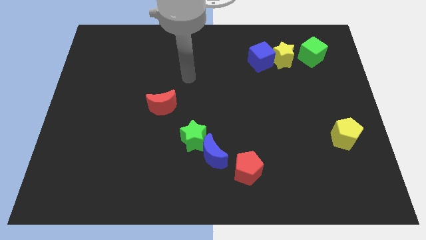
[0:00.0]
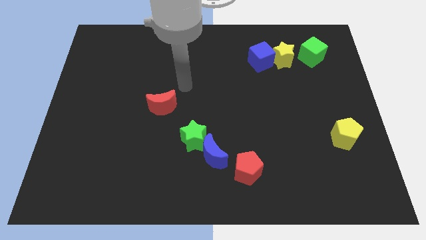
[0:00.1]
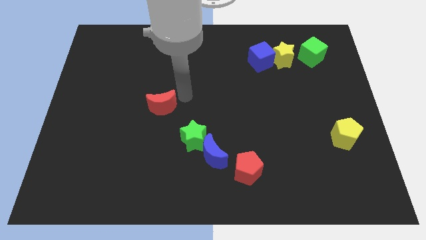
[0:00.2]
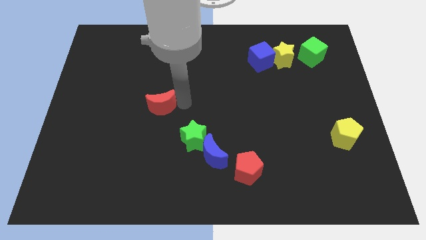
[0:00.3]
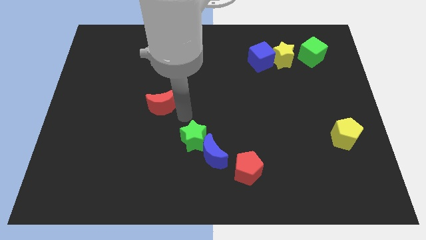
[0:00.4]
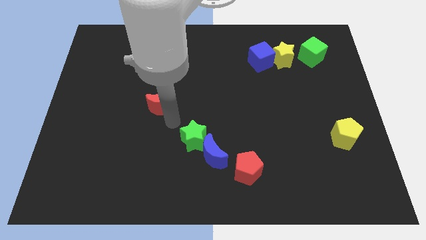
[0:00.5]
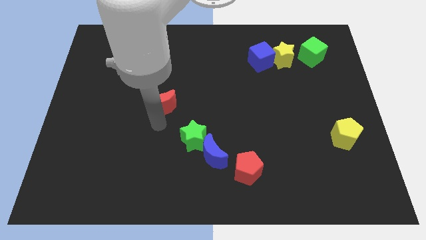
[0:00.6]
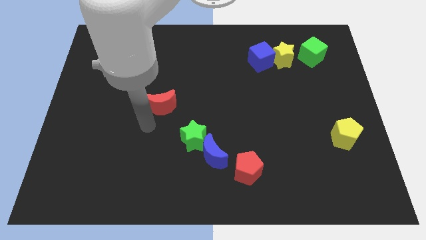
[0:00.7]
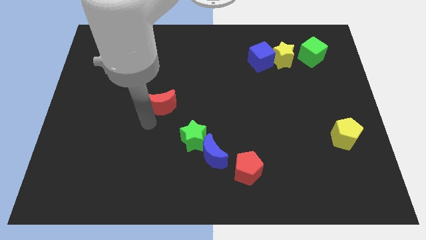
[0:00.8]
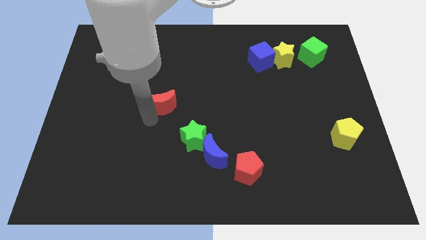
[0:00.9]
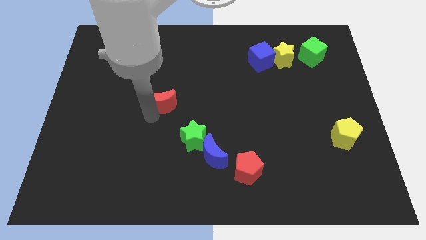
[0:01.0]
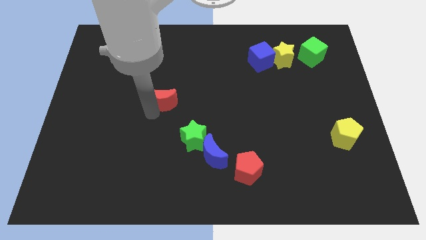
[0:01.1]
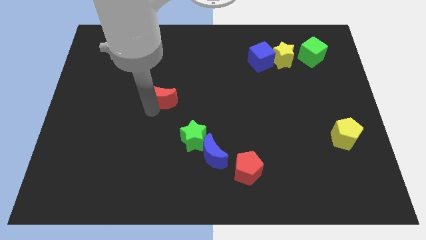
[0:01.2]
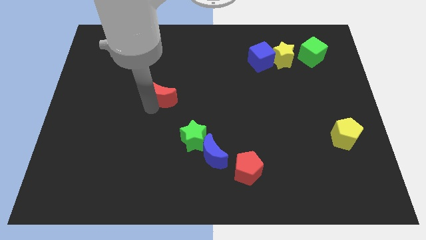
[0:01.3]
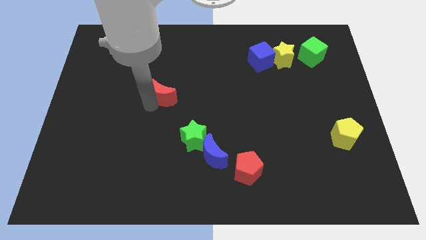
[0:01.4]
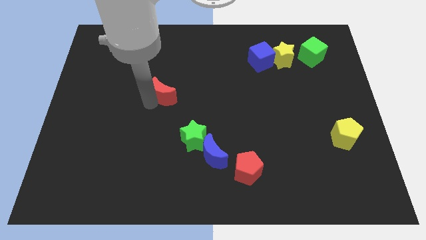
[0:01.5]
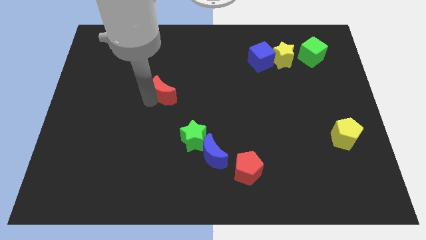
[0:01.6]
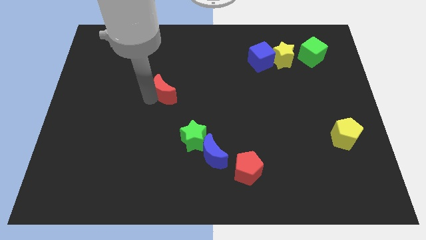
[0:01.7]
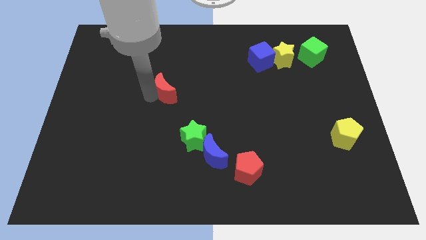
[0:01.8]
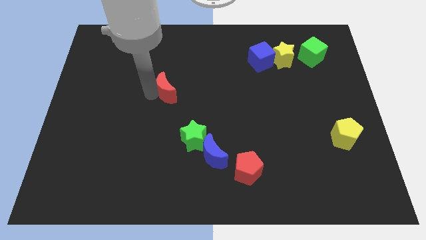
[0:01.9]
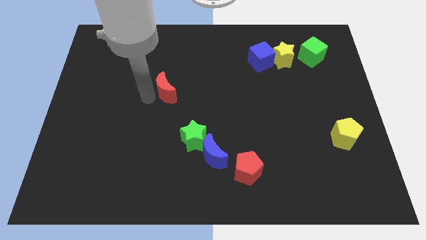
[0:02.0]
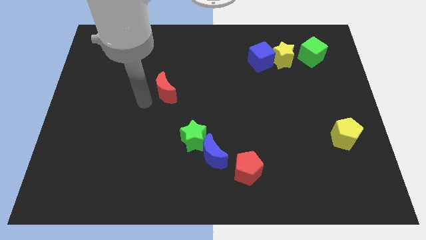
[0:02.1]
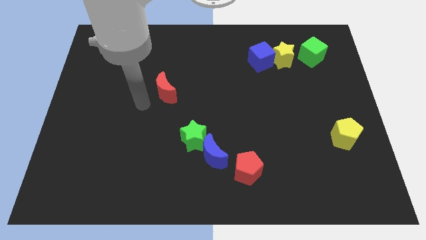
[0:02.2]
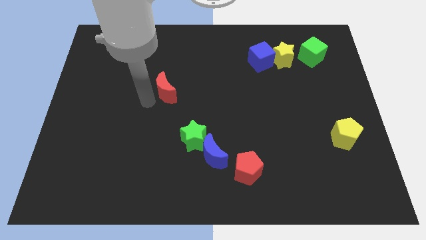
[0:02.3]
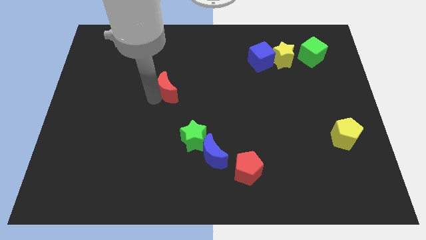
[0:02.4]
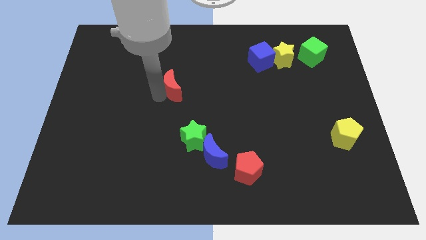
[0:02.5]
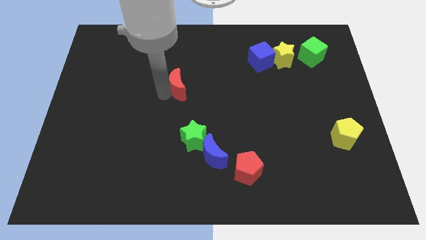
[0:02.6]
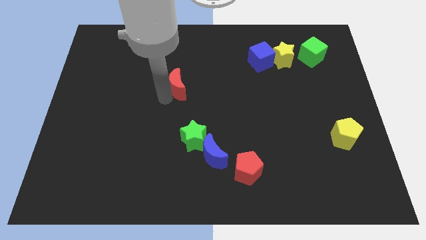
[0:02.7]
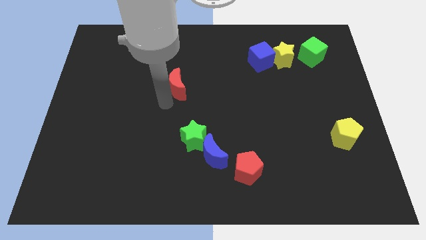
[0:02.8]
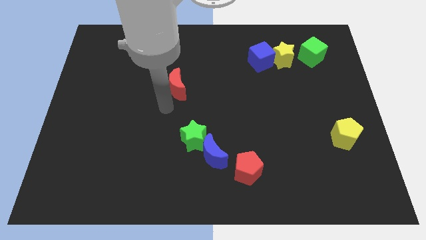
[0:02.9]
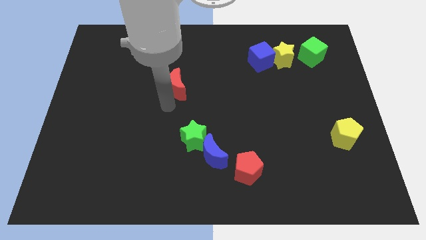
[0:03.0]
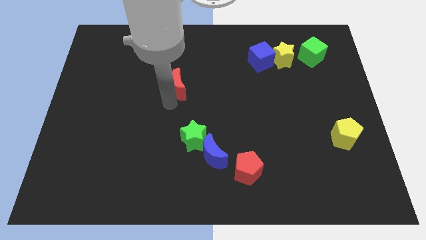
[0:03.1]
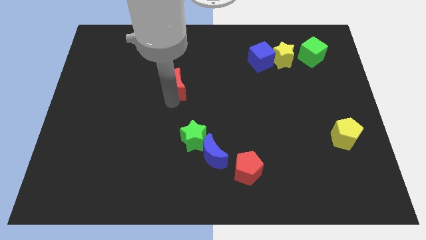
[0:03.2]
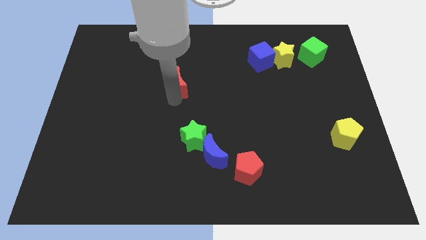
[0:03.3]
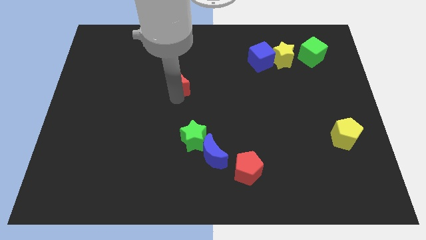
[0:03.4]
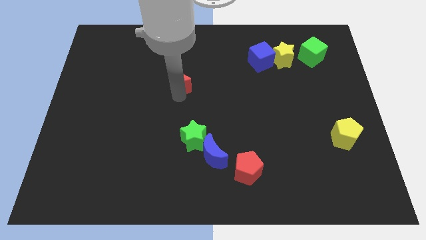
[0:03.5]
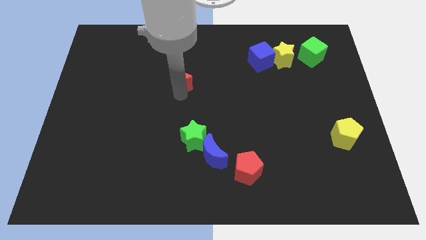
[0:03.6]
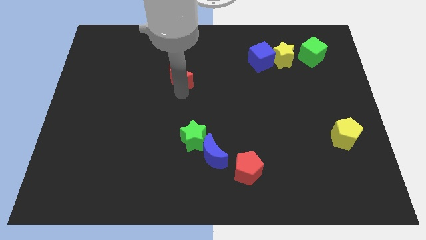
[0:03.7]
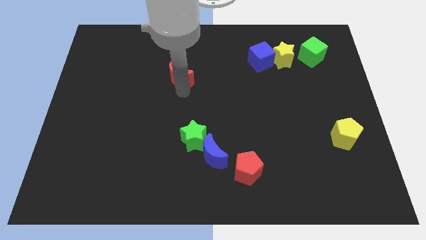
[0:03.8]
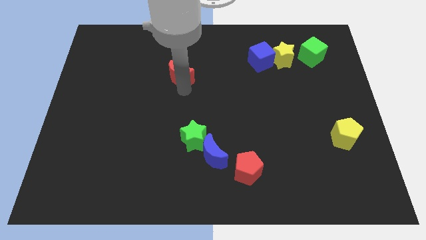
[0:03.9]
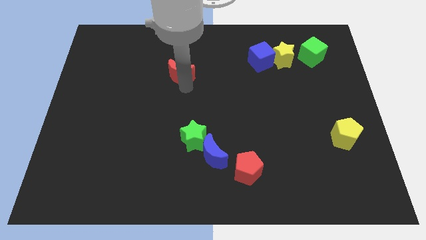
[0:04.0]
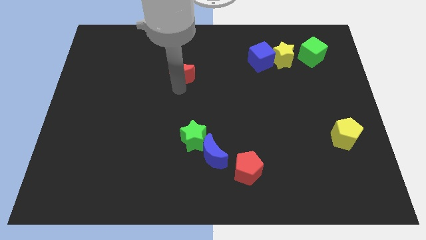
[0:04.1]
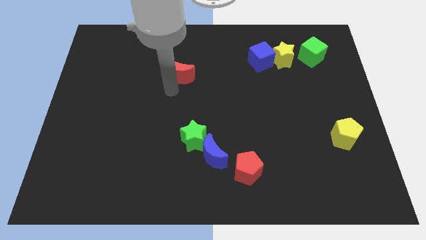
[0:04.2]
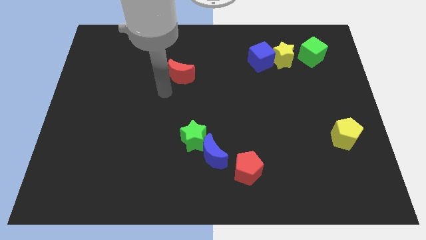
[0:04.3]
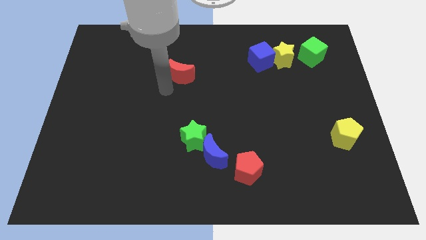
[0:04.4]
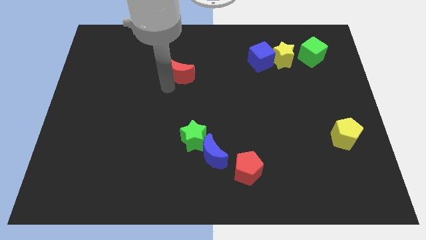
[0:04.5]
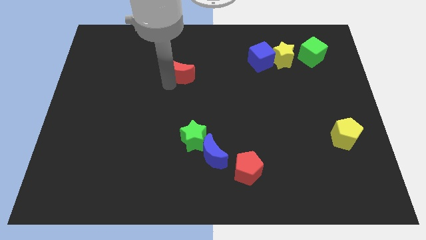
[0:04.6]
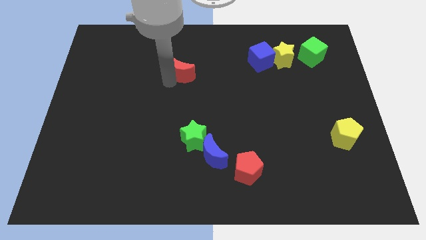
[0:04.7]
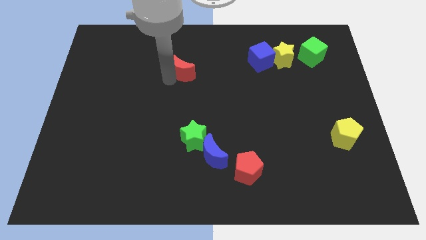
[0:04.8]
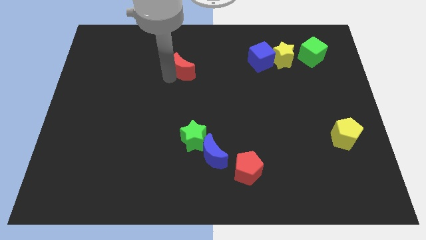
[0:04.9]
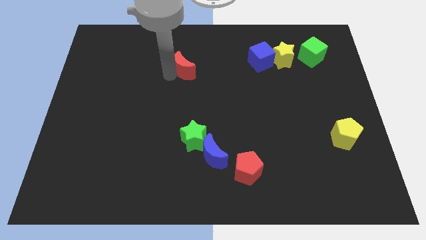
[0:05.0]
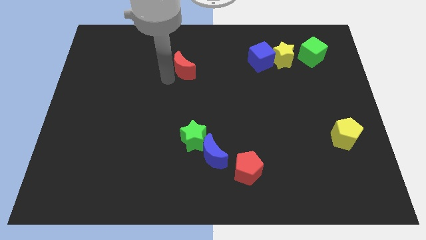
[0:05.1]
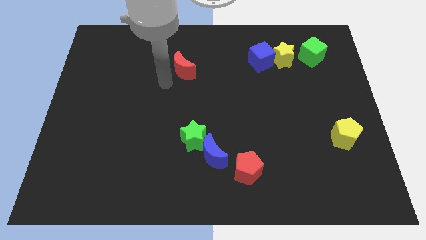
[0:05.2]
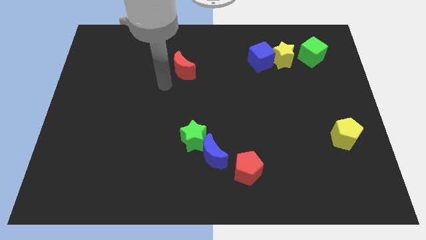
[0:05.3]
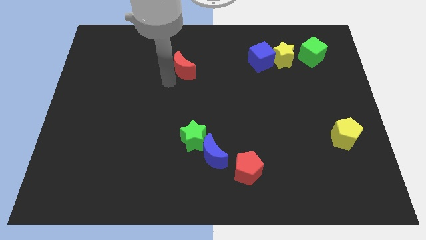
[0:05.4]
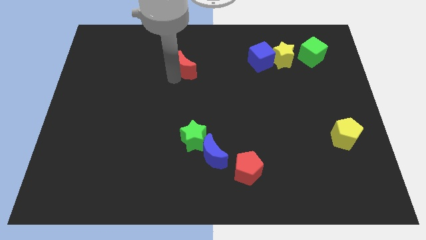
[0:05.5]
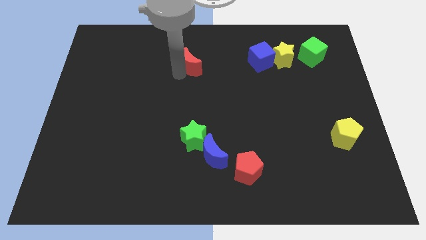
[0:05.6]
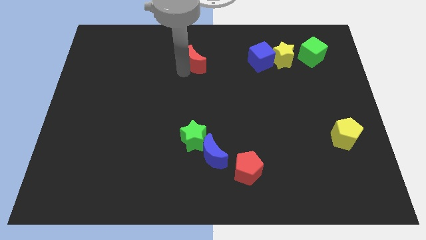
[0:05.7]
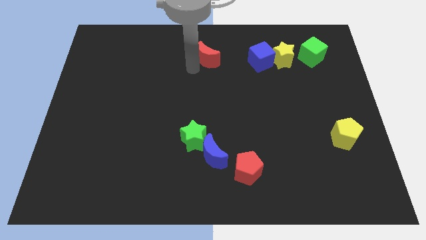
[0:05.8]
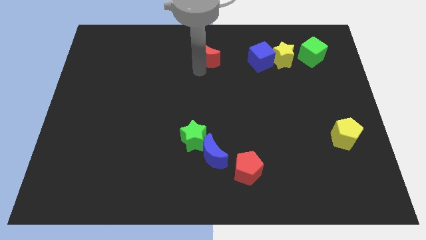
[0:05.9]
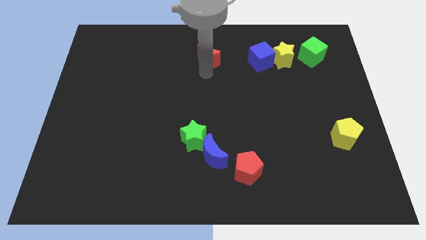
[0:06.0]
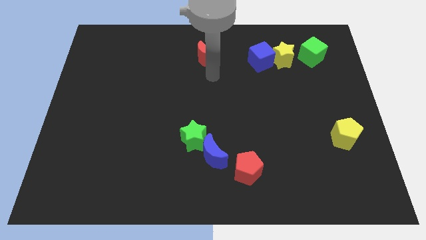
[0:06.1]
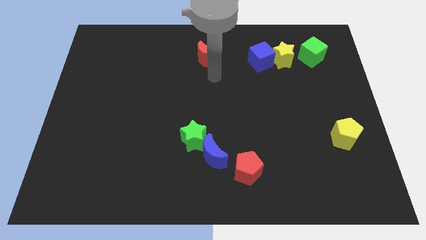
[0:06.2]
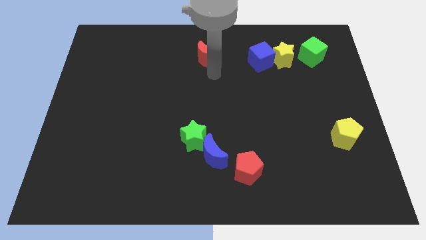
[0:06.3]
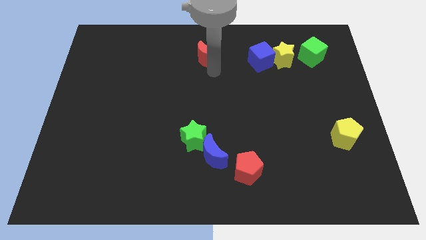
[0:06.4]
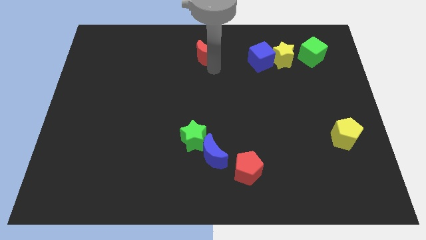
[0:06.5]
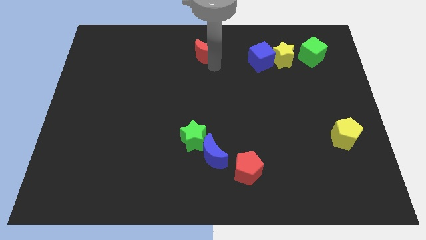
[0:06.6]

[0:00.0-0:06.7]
put the red moon to the top

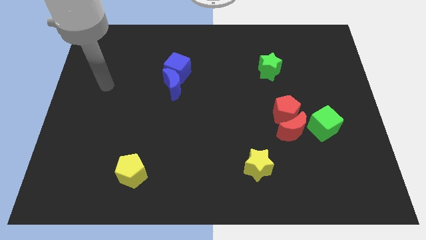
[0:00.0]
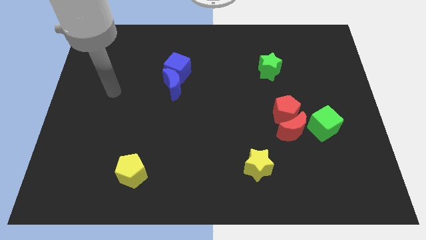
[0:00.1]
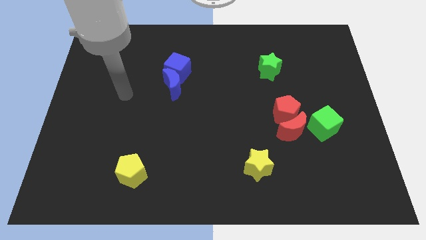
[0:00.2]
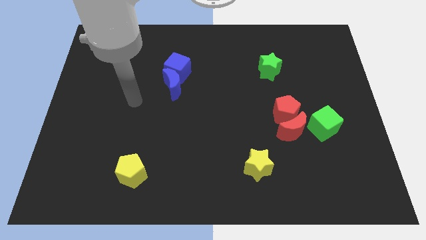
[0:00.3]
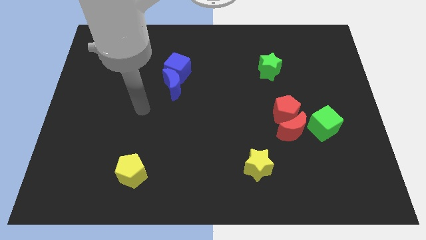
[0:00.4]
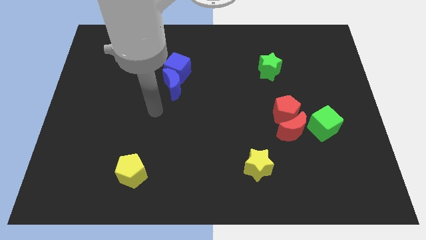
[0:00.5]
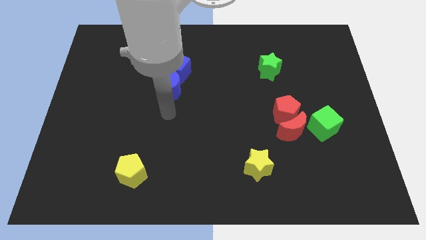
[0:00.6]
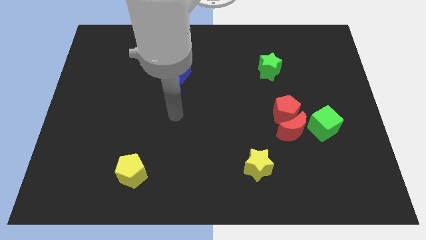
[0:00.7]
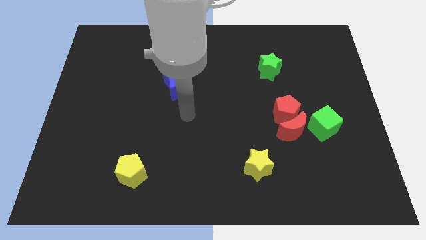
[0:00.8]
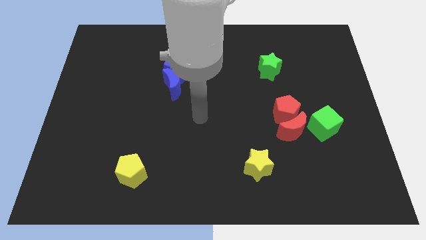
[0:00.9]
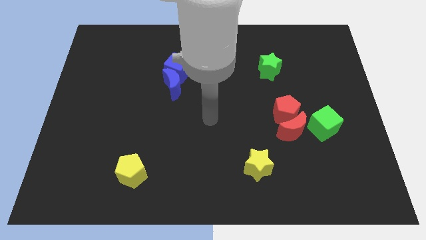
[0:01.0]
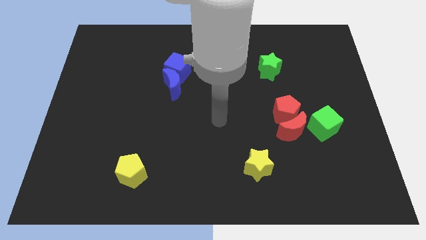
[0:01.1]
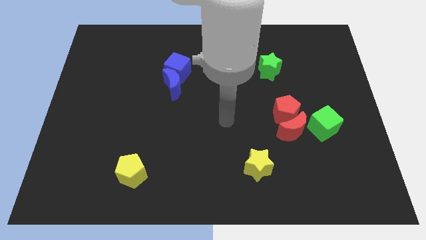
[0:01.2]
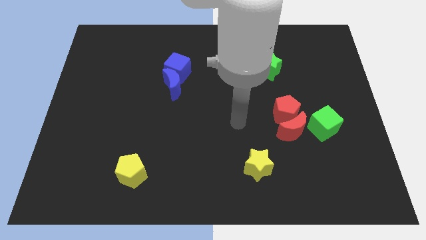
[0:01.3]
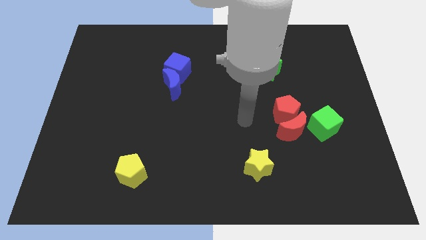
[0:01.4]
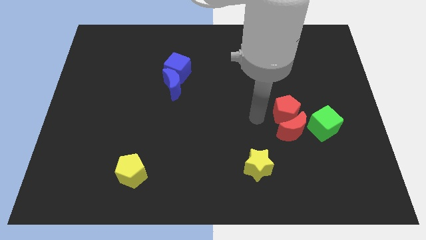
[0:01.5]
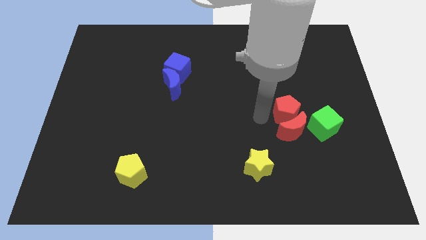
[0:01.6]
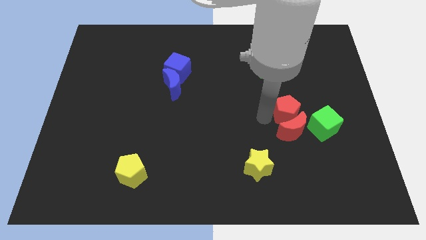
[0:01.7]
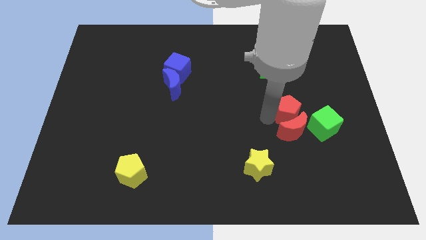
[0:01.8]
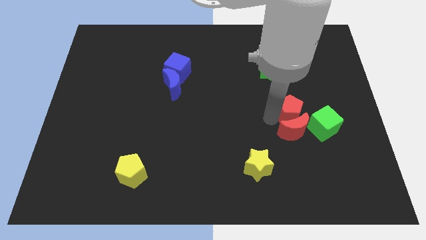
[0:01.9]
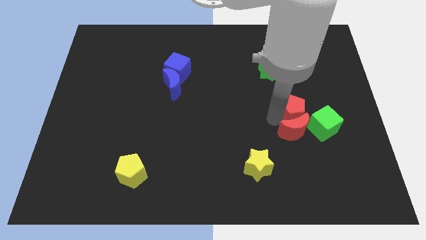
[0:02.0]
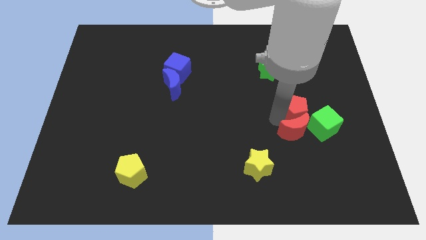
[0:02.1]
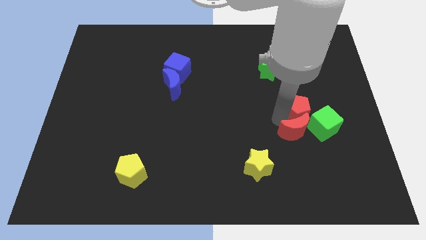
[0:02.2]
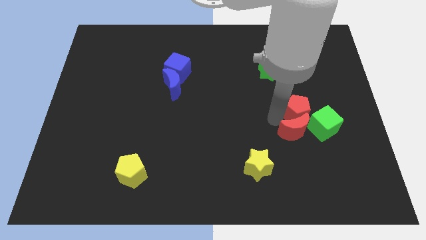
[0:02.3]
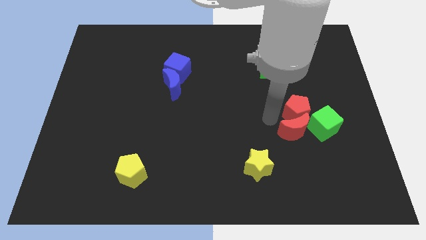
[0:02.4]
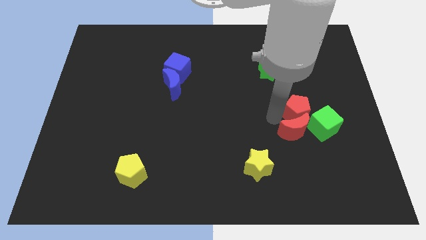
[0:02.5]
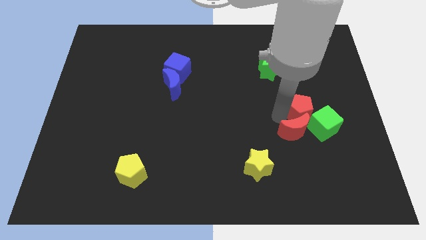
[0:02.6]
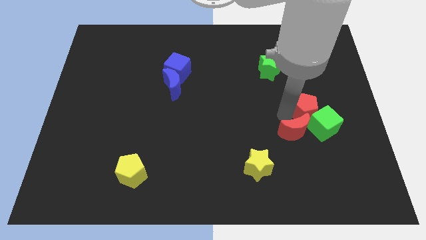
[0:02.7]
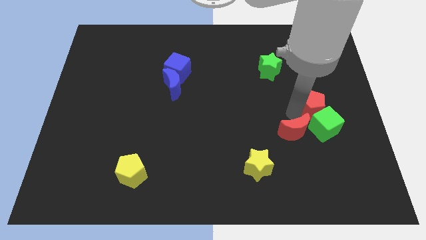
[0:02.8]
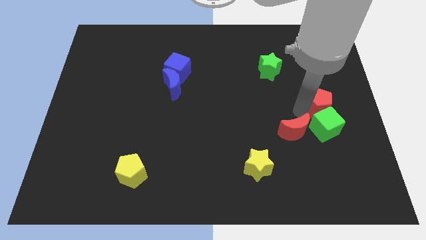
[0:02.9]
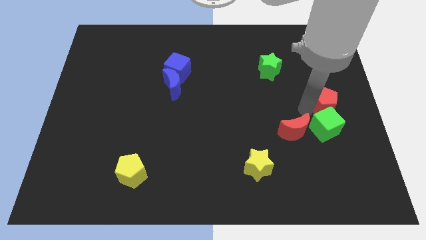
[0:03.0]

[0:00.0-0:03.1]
move the red pentagon to the right side
